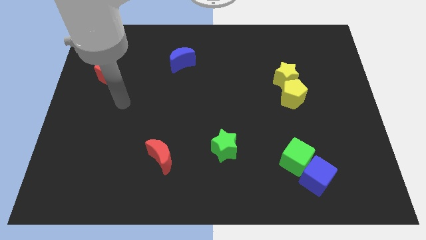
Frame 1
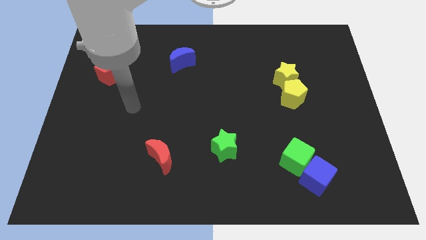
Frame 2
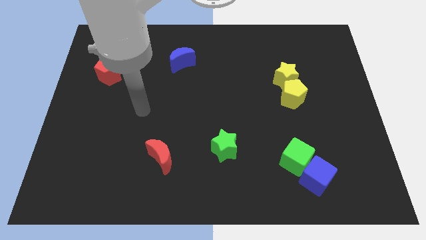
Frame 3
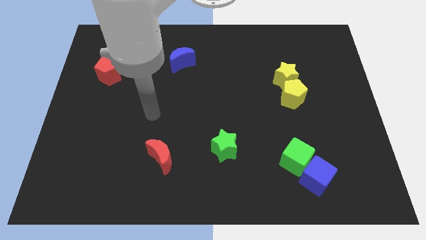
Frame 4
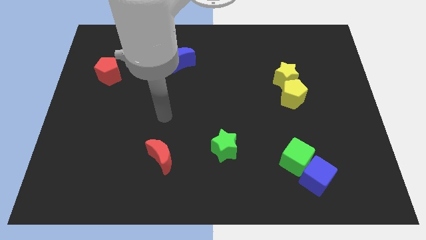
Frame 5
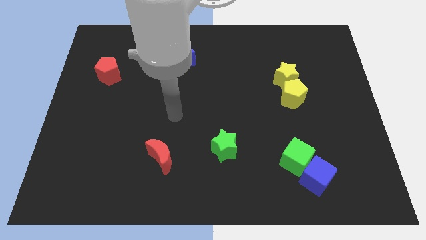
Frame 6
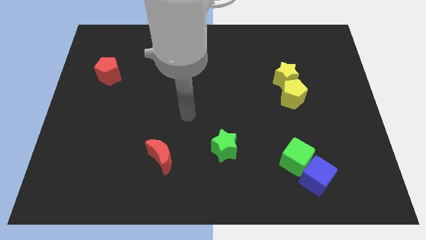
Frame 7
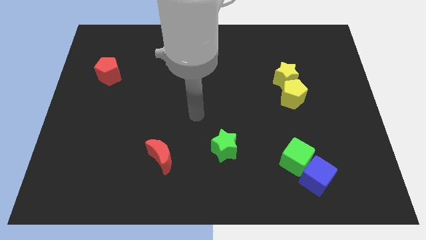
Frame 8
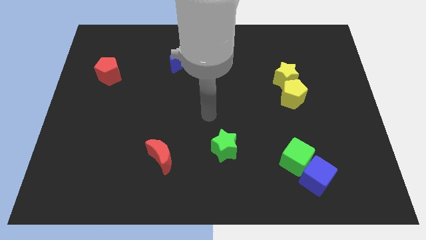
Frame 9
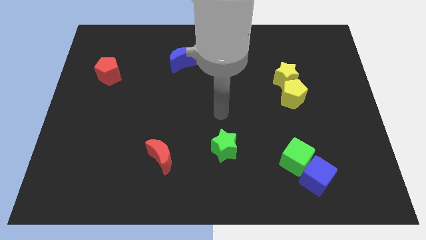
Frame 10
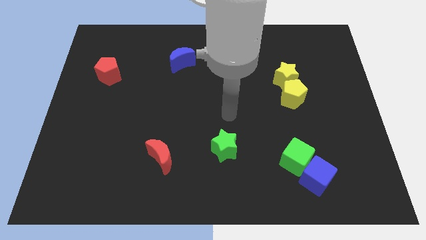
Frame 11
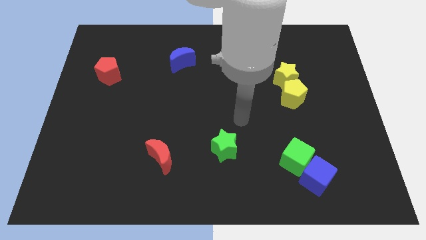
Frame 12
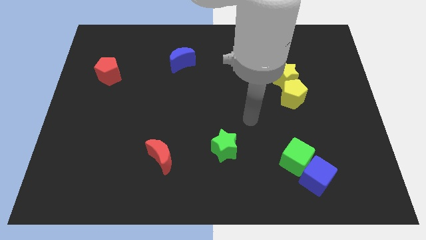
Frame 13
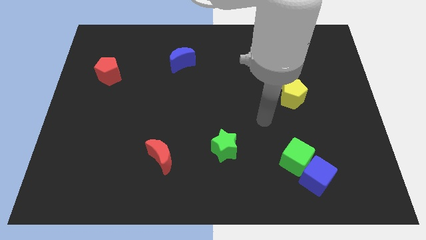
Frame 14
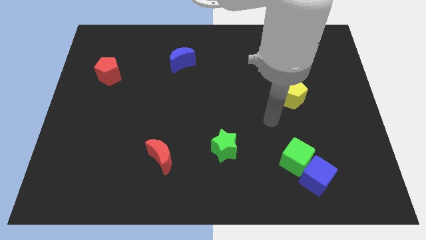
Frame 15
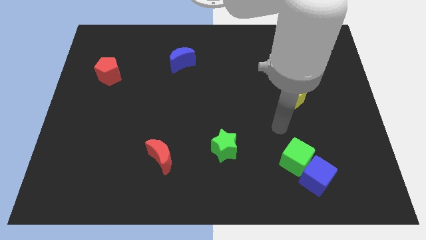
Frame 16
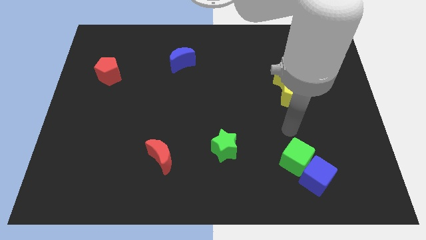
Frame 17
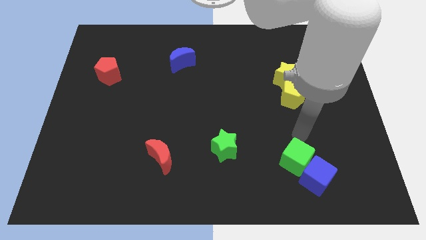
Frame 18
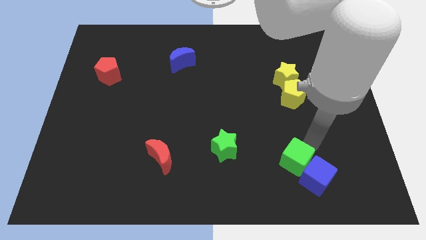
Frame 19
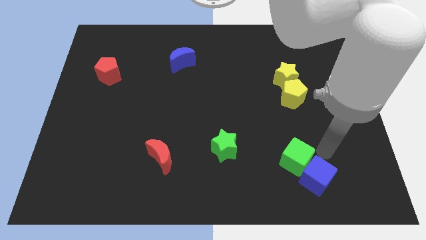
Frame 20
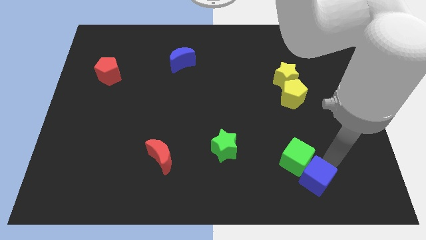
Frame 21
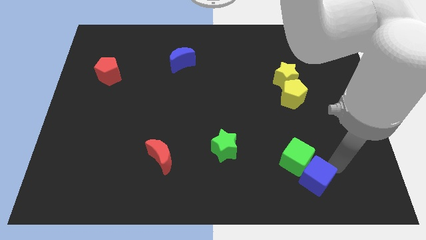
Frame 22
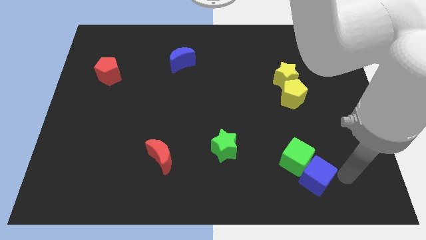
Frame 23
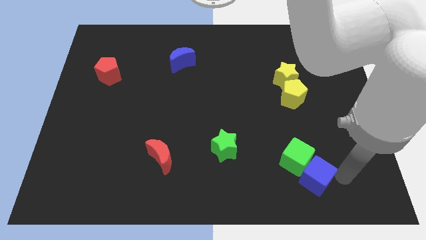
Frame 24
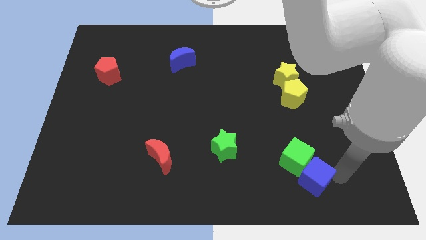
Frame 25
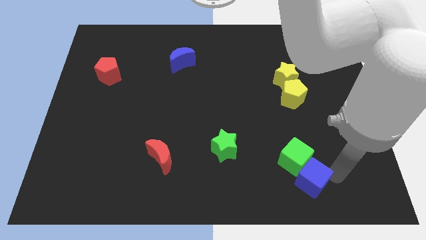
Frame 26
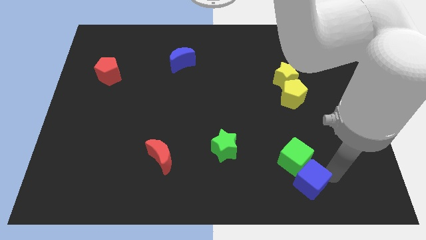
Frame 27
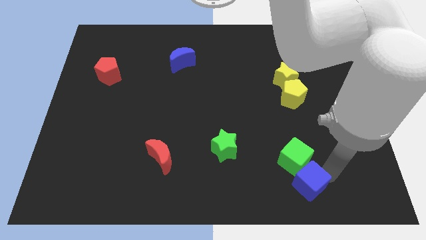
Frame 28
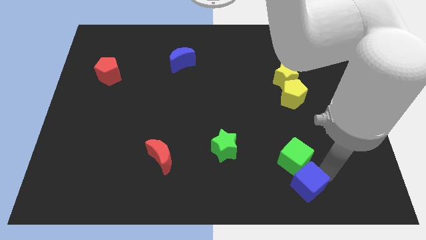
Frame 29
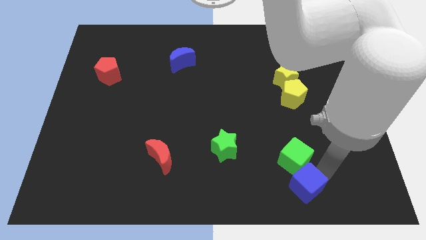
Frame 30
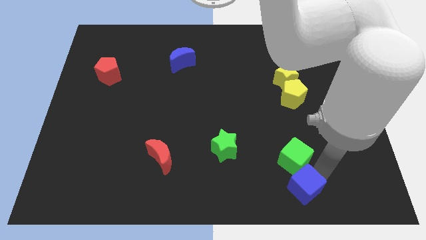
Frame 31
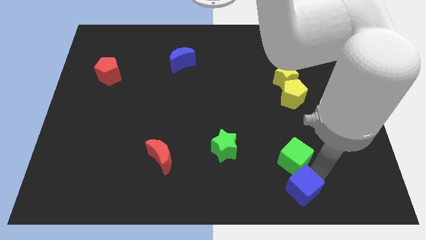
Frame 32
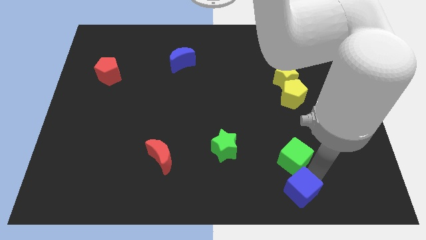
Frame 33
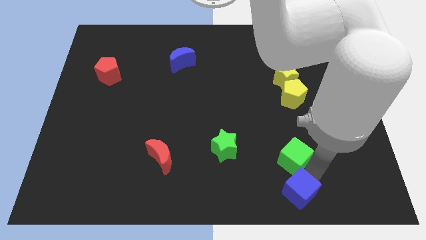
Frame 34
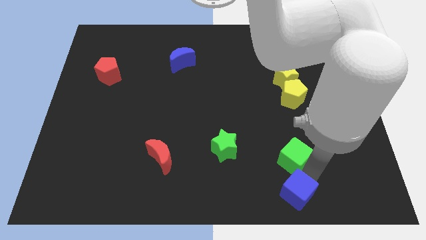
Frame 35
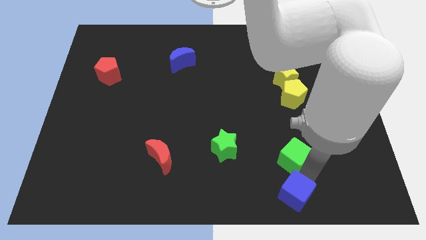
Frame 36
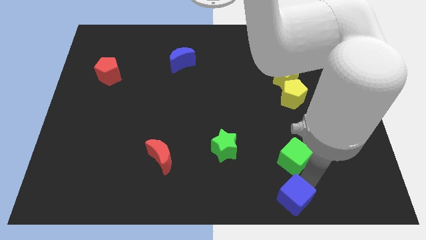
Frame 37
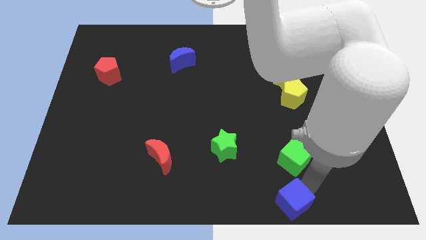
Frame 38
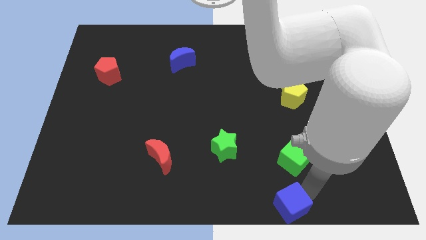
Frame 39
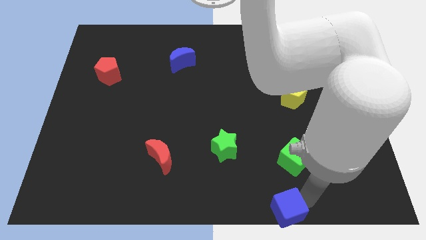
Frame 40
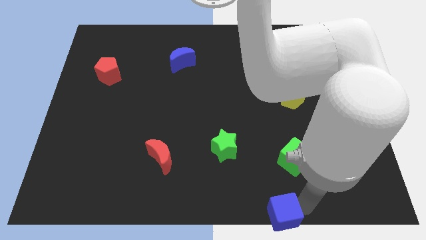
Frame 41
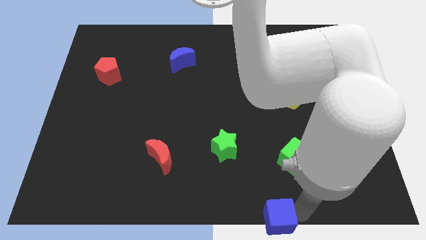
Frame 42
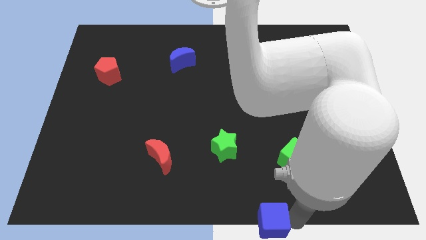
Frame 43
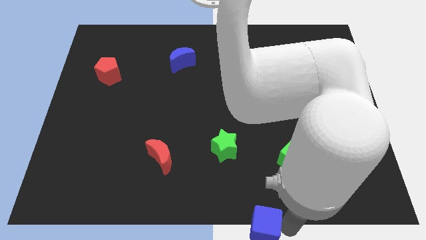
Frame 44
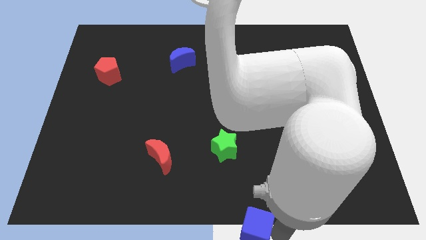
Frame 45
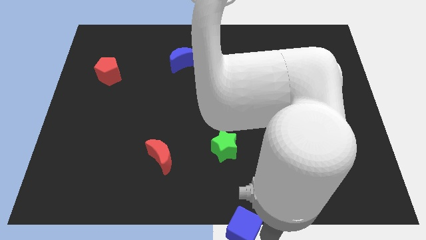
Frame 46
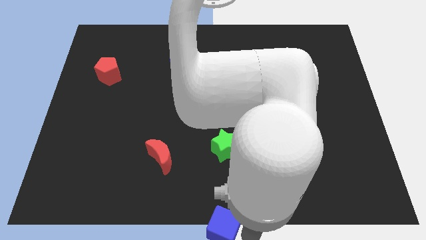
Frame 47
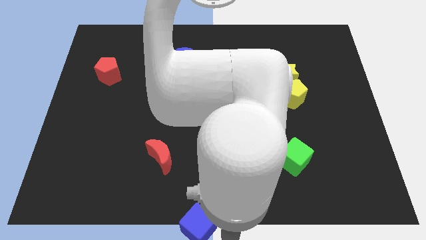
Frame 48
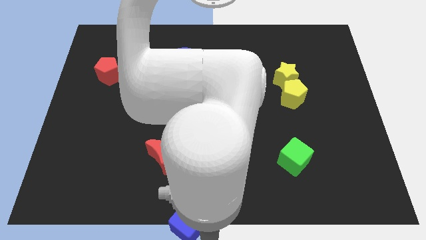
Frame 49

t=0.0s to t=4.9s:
push the blue cube to the left

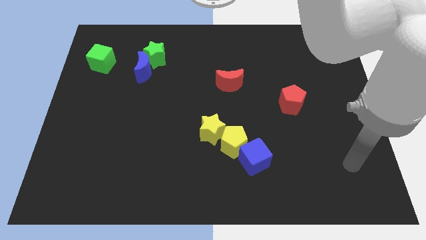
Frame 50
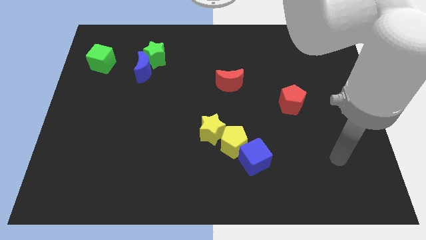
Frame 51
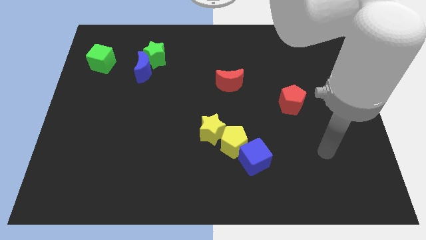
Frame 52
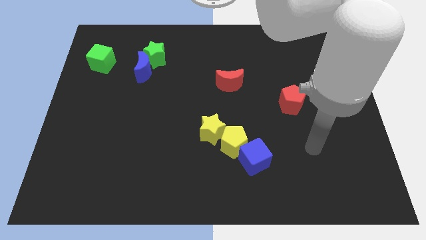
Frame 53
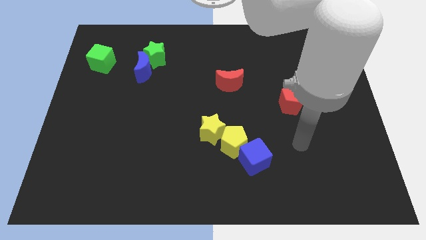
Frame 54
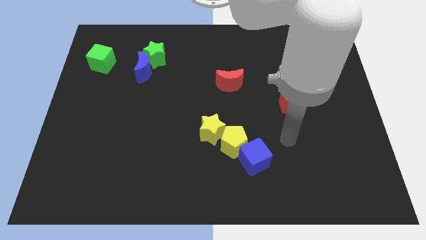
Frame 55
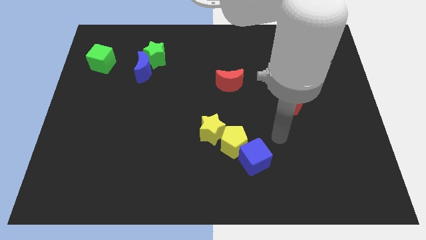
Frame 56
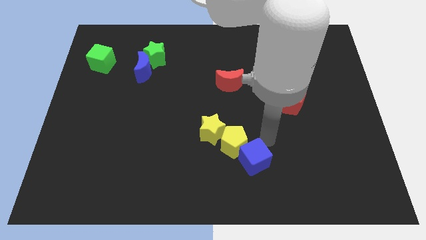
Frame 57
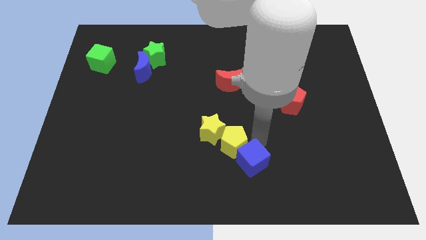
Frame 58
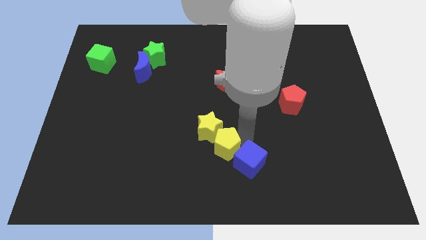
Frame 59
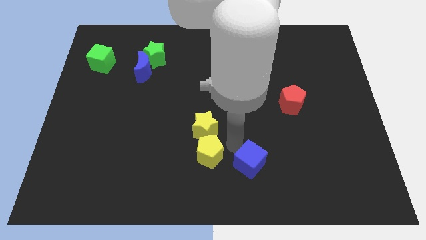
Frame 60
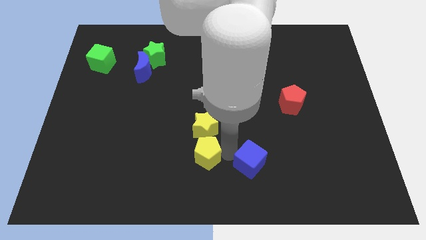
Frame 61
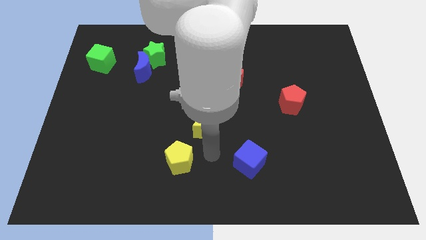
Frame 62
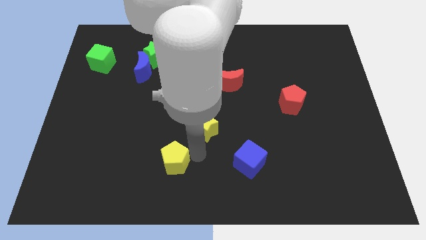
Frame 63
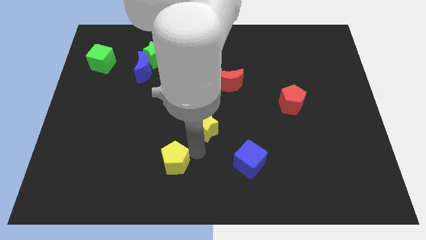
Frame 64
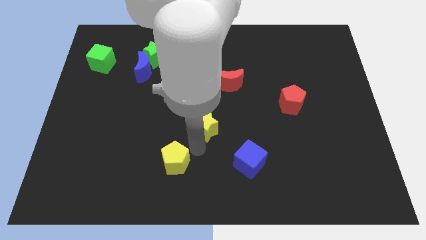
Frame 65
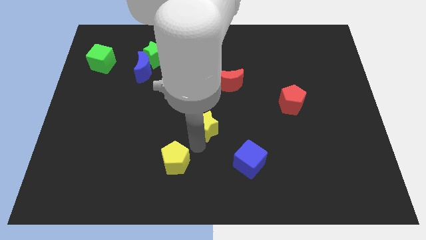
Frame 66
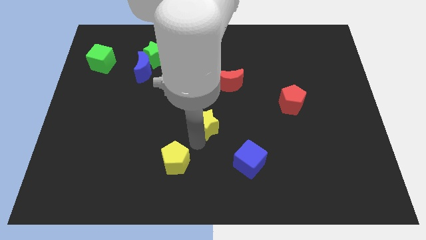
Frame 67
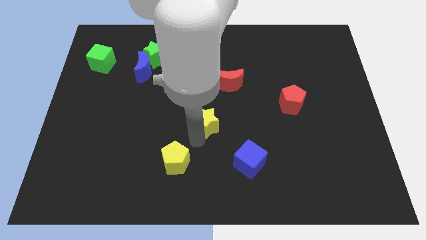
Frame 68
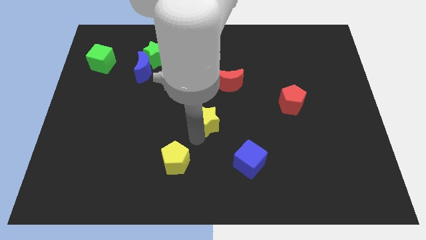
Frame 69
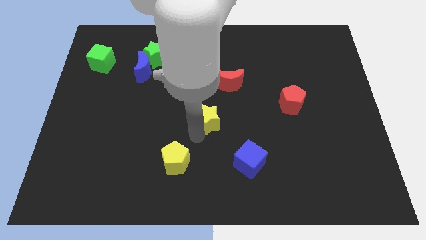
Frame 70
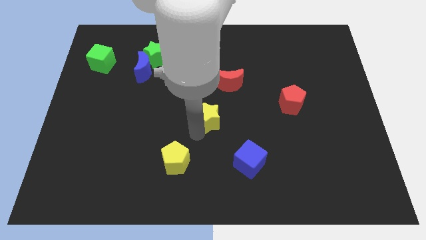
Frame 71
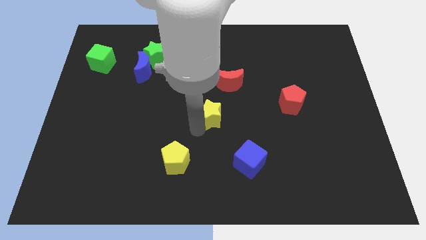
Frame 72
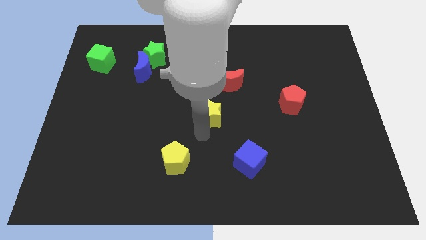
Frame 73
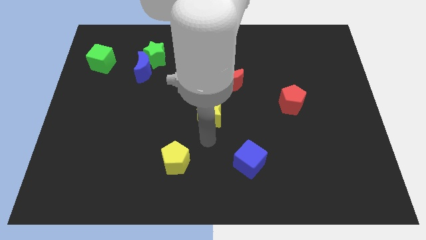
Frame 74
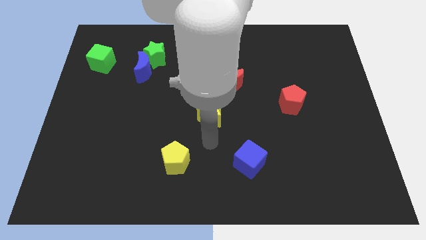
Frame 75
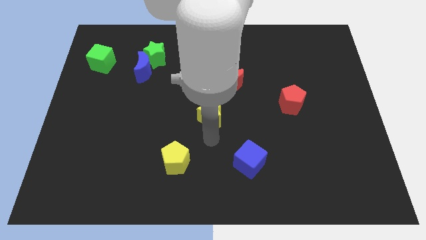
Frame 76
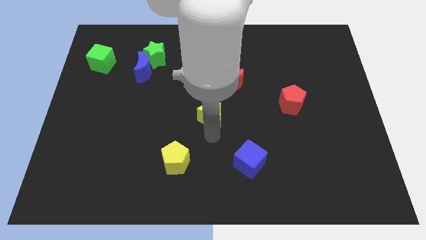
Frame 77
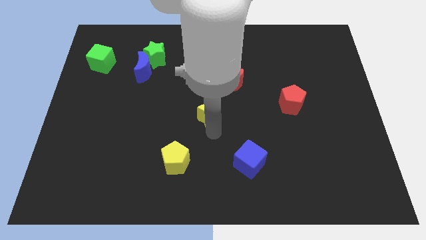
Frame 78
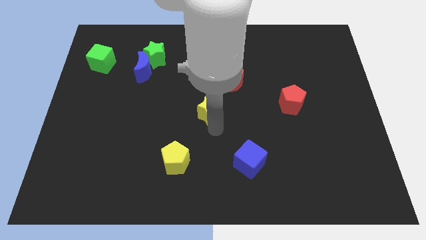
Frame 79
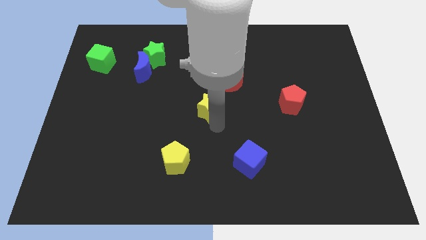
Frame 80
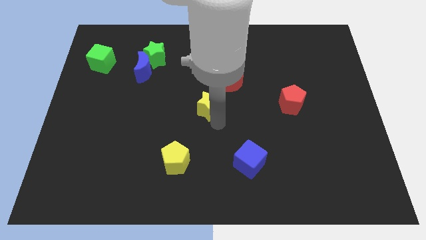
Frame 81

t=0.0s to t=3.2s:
move the yellow star a little upwards
